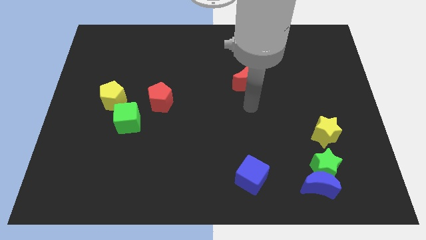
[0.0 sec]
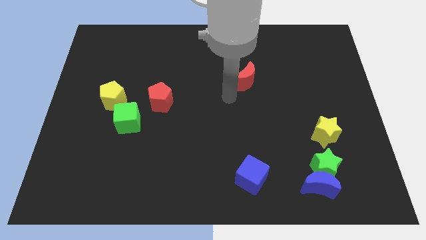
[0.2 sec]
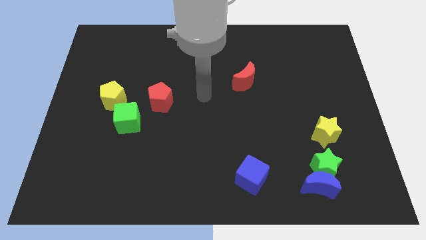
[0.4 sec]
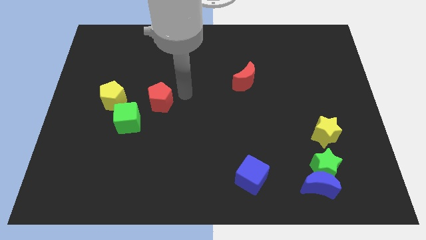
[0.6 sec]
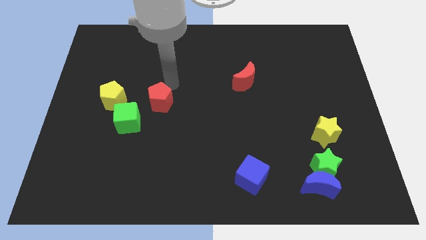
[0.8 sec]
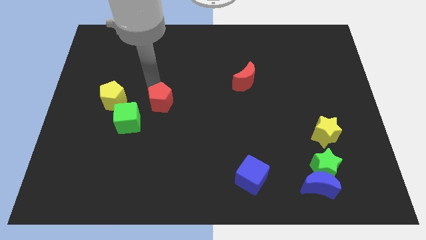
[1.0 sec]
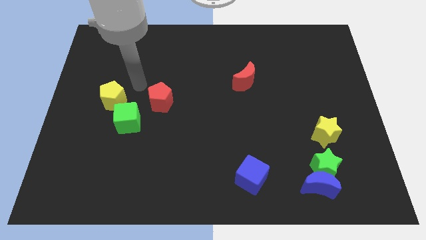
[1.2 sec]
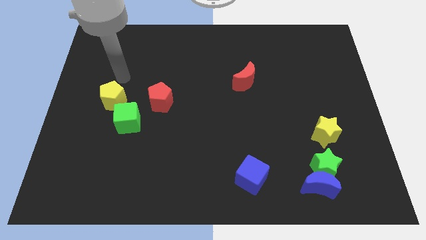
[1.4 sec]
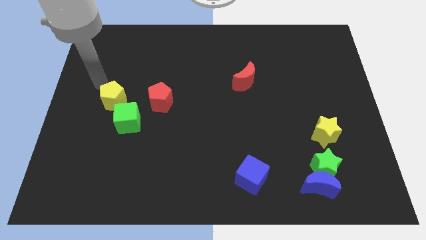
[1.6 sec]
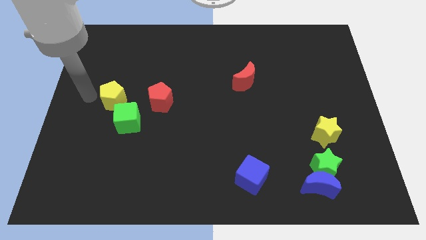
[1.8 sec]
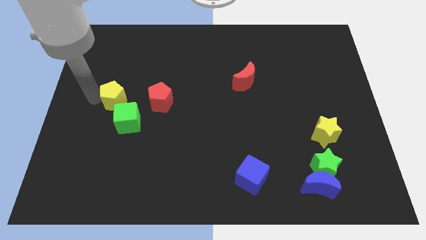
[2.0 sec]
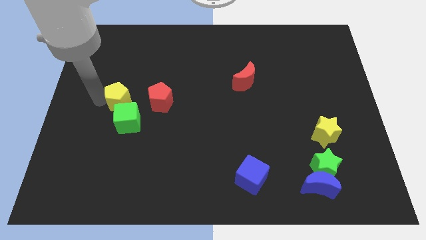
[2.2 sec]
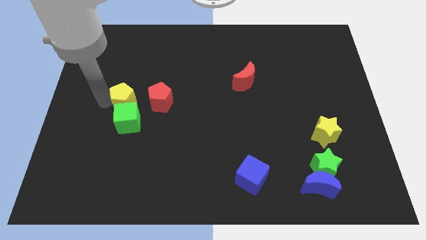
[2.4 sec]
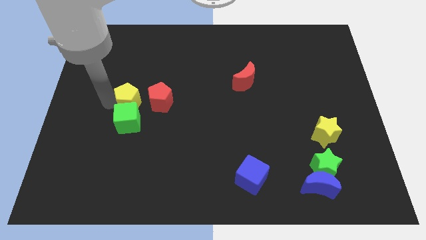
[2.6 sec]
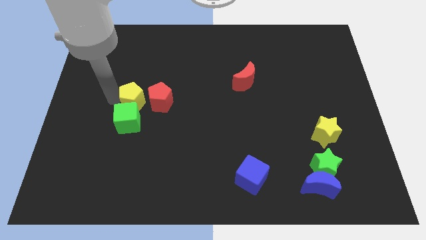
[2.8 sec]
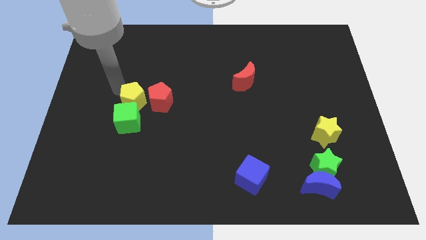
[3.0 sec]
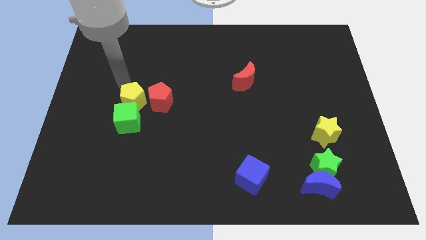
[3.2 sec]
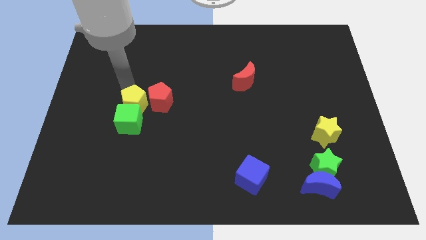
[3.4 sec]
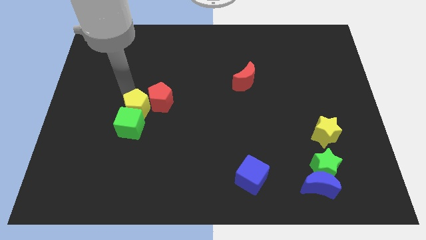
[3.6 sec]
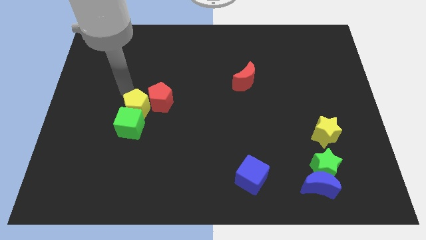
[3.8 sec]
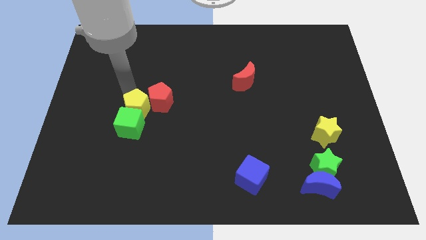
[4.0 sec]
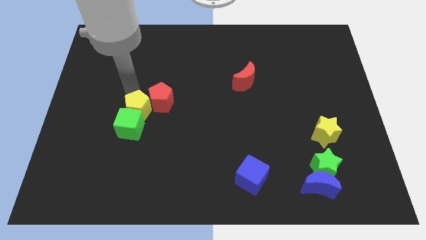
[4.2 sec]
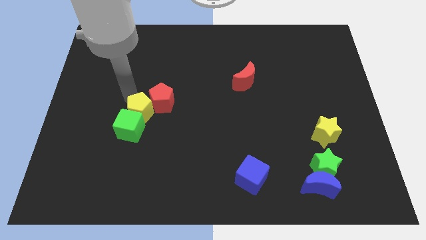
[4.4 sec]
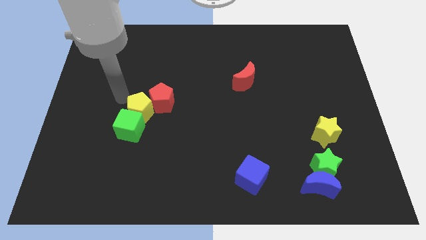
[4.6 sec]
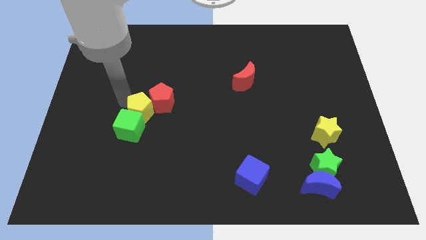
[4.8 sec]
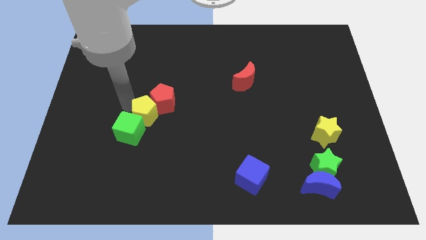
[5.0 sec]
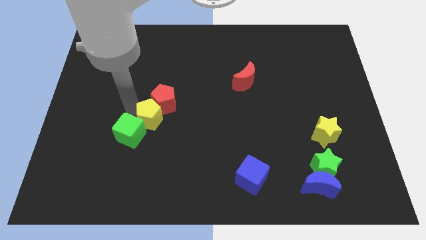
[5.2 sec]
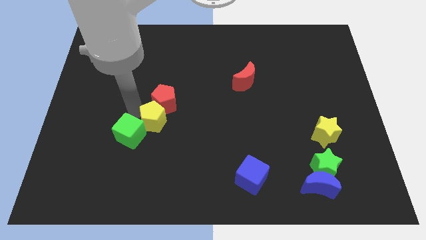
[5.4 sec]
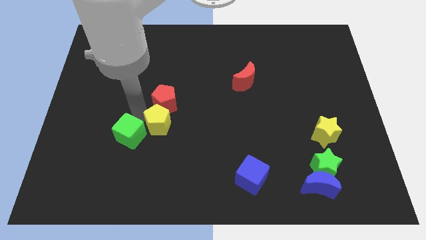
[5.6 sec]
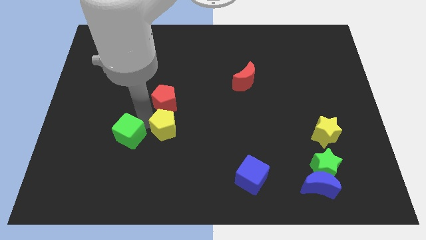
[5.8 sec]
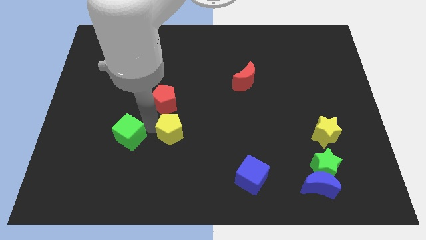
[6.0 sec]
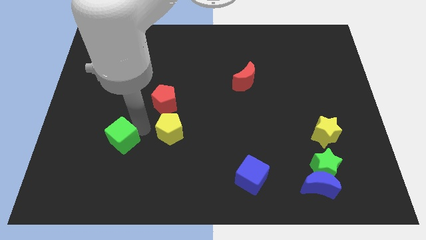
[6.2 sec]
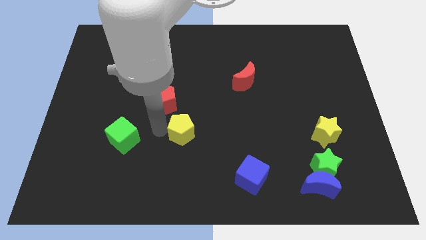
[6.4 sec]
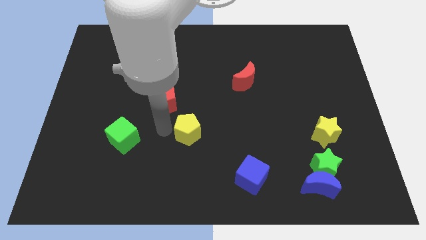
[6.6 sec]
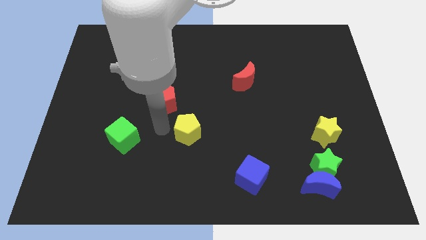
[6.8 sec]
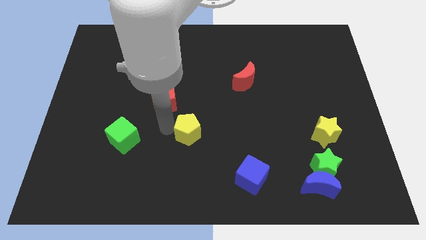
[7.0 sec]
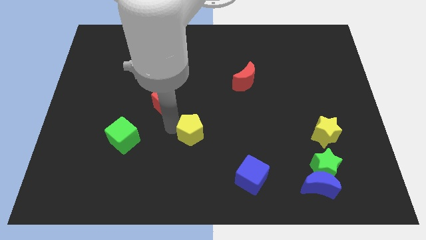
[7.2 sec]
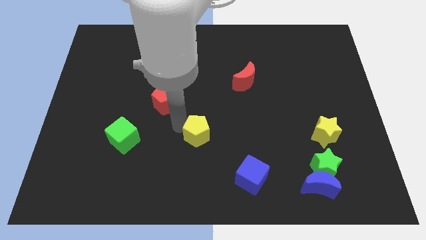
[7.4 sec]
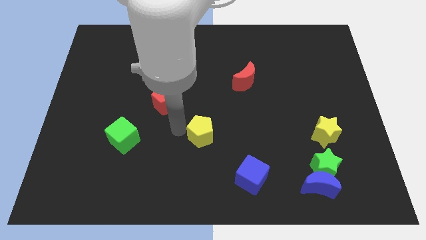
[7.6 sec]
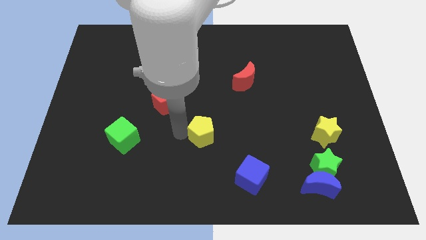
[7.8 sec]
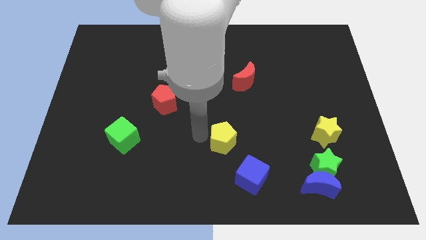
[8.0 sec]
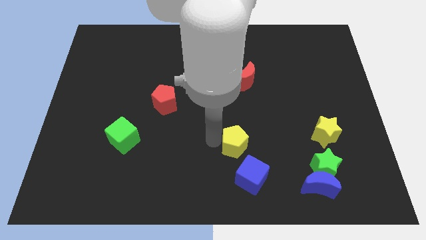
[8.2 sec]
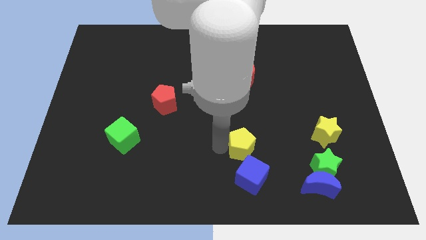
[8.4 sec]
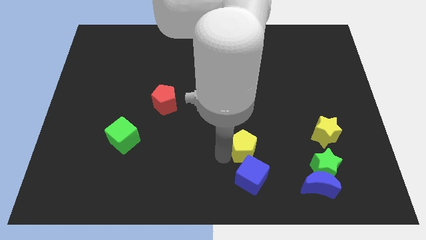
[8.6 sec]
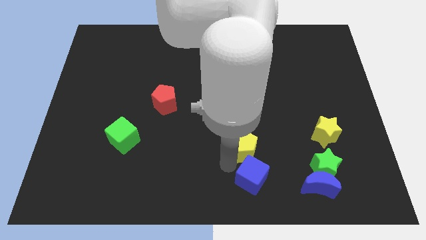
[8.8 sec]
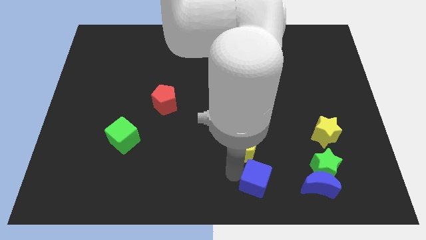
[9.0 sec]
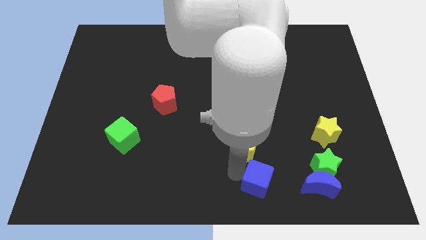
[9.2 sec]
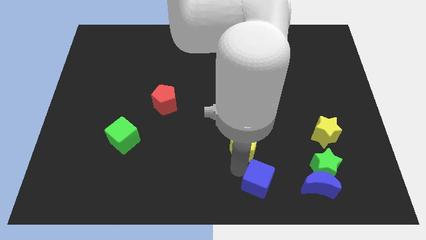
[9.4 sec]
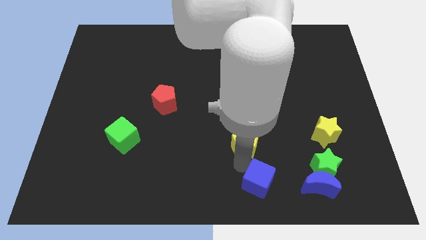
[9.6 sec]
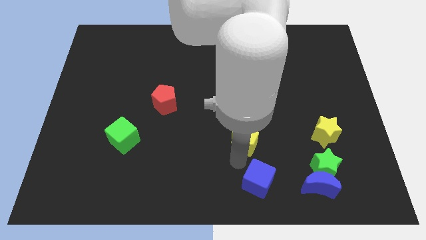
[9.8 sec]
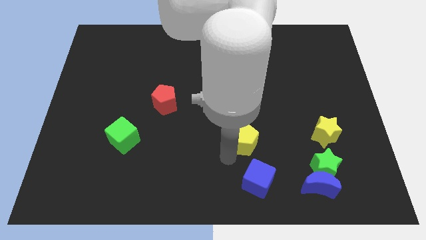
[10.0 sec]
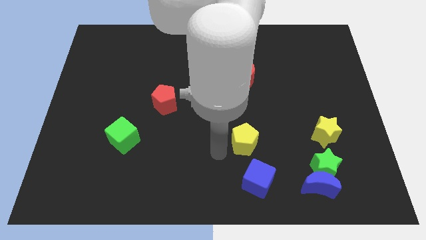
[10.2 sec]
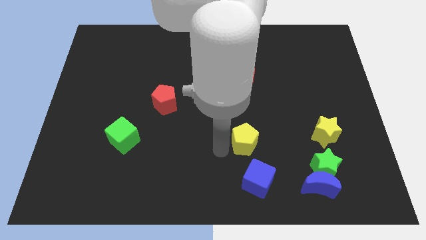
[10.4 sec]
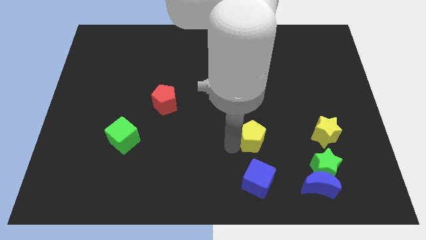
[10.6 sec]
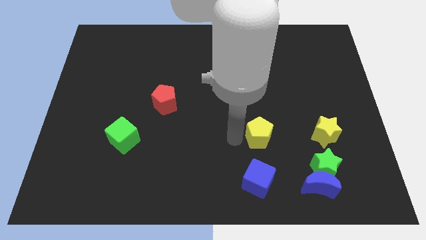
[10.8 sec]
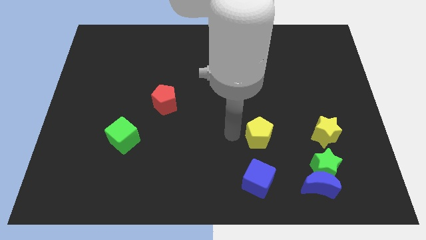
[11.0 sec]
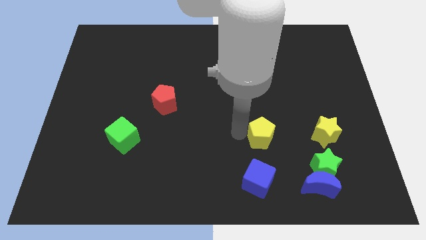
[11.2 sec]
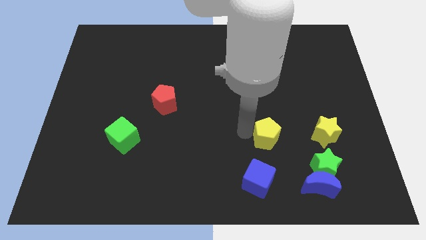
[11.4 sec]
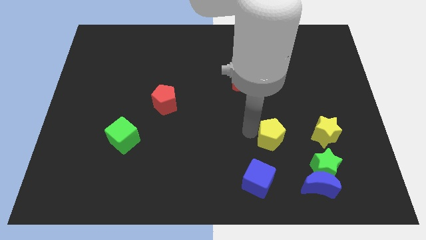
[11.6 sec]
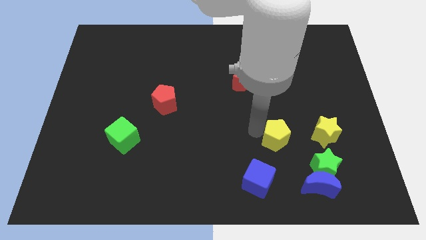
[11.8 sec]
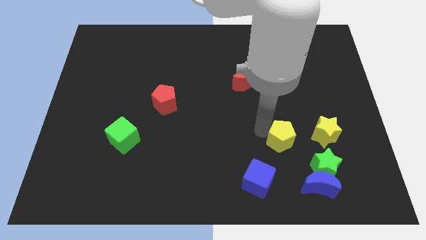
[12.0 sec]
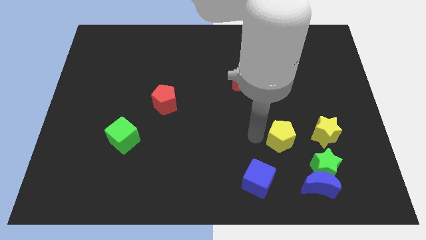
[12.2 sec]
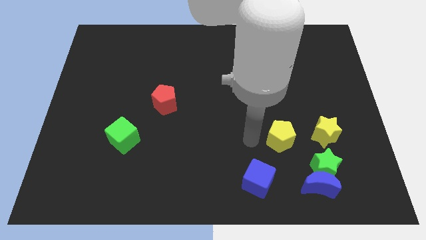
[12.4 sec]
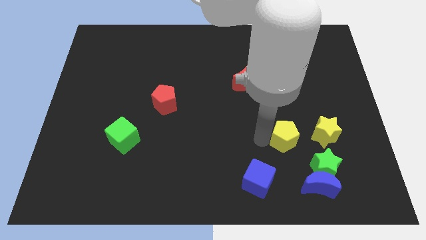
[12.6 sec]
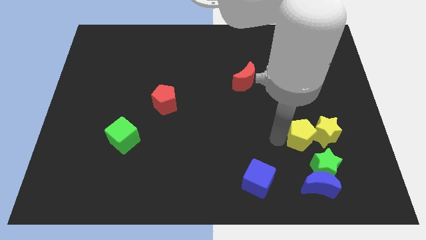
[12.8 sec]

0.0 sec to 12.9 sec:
put the yellow pentagon next to the yellow star

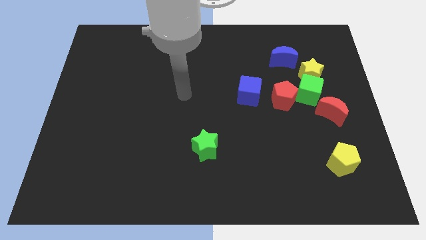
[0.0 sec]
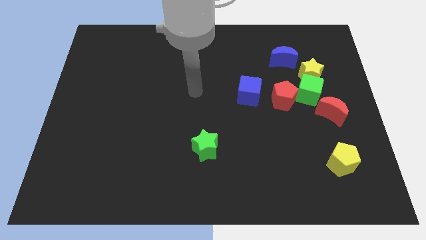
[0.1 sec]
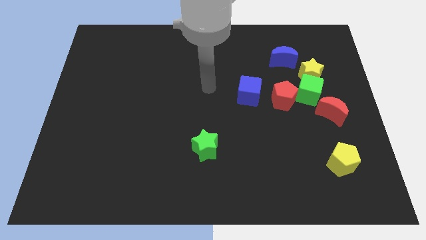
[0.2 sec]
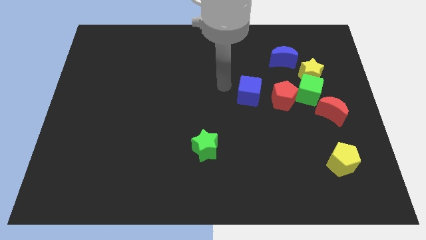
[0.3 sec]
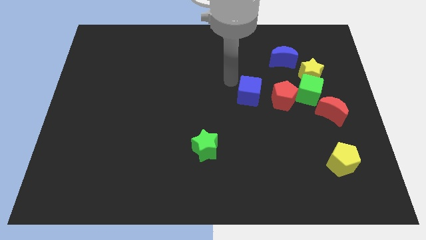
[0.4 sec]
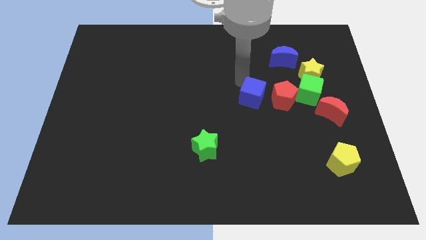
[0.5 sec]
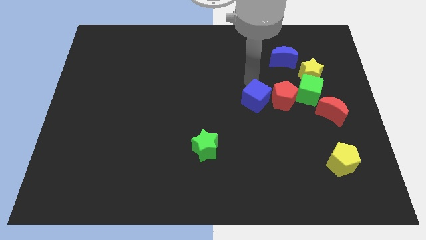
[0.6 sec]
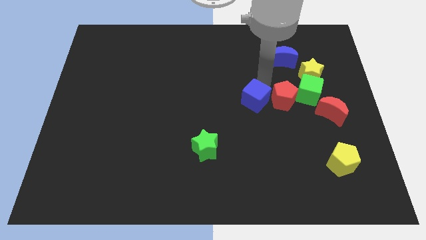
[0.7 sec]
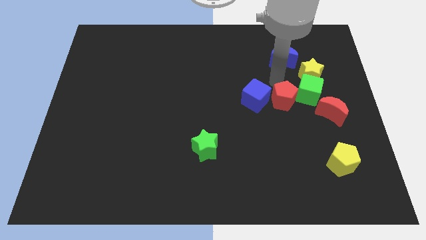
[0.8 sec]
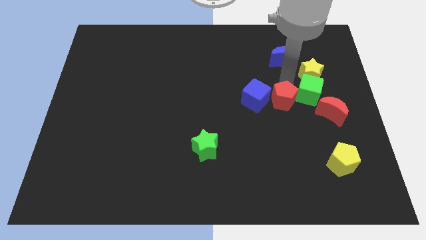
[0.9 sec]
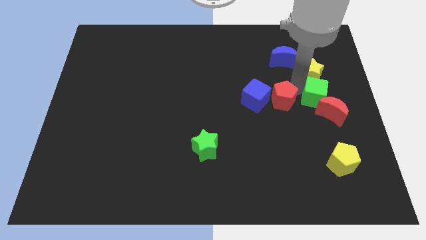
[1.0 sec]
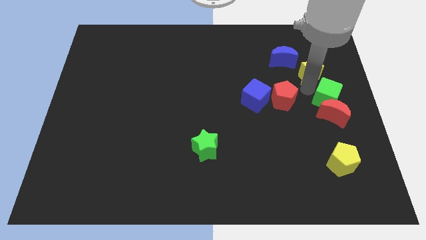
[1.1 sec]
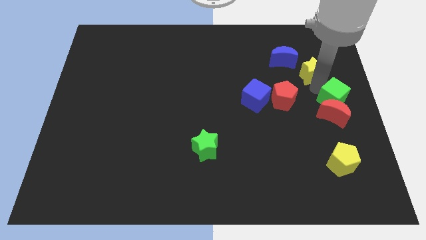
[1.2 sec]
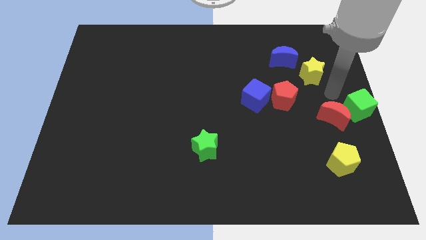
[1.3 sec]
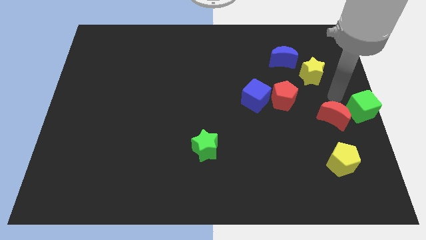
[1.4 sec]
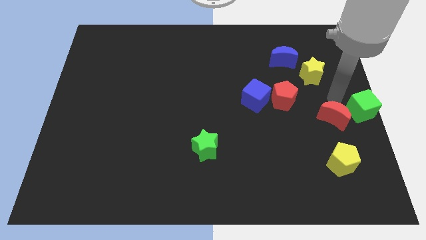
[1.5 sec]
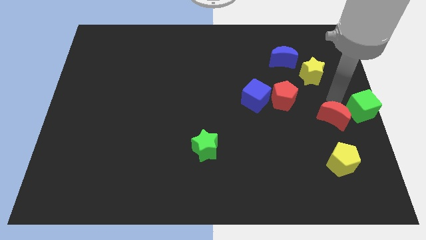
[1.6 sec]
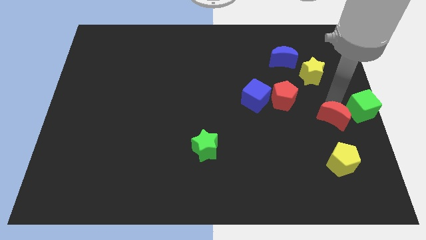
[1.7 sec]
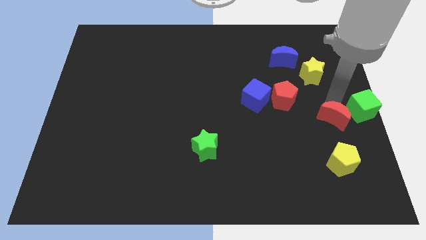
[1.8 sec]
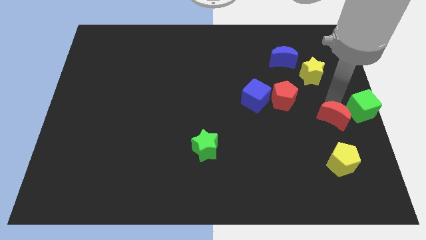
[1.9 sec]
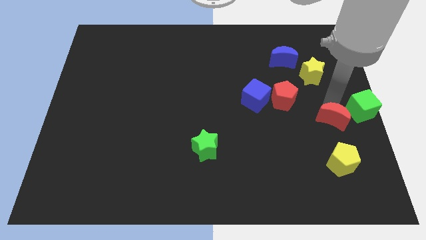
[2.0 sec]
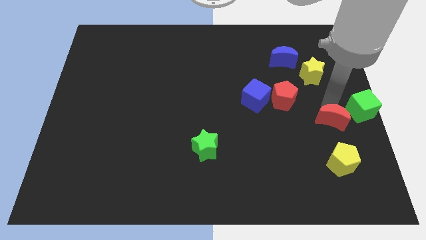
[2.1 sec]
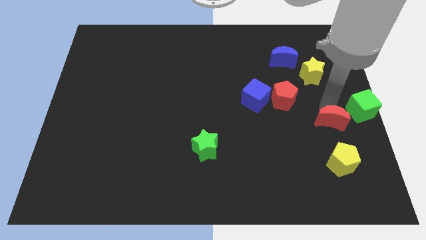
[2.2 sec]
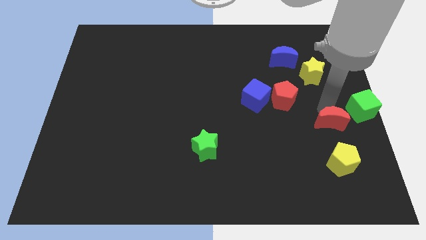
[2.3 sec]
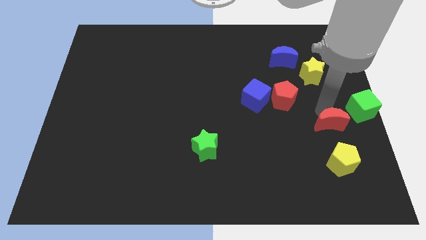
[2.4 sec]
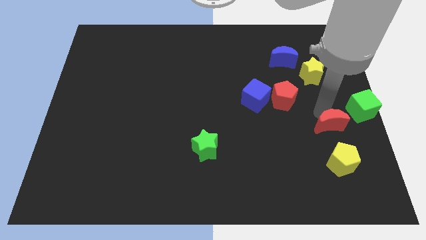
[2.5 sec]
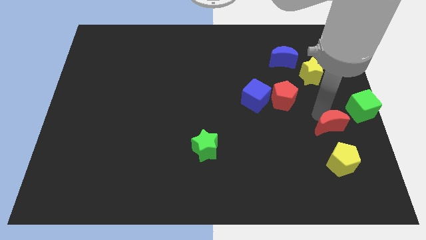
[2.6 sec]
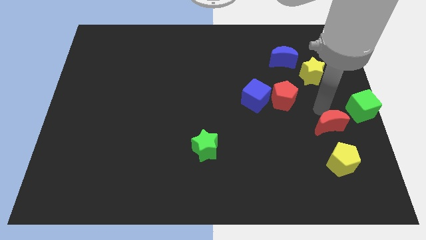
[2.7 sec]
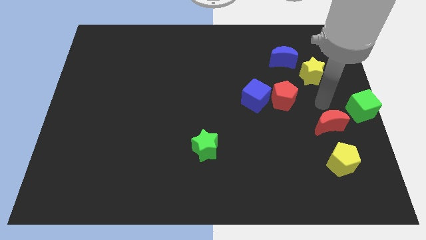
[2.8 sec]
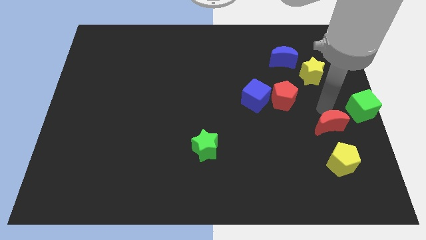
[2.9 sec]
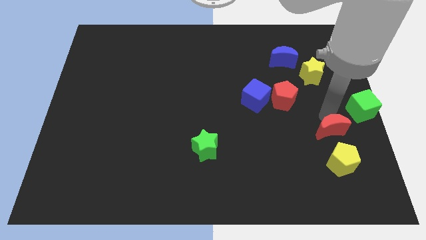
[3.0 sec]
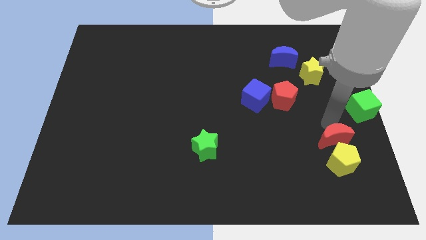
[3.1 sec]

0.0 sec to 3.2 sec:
slide the red moon next to the yellow pentagon
